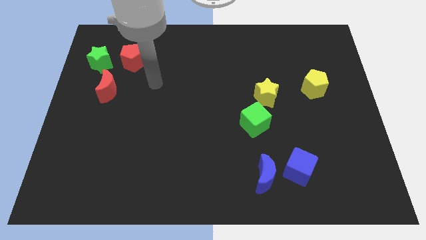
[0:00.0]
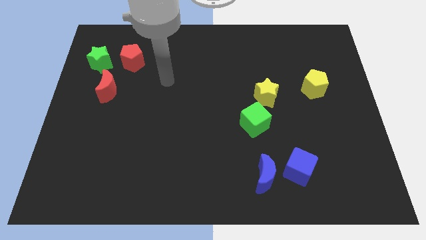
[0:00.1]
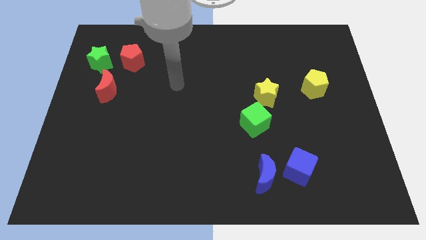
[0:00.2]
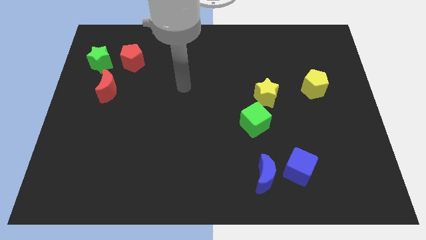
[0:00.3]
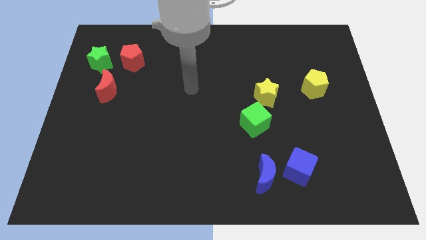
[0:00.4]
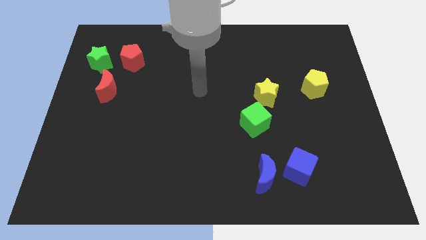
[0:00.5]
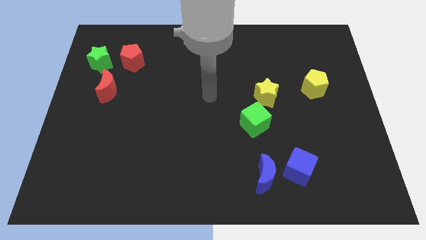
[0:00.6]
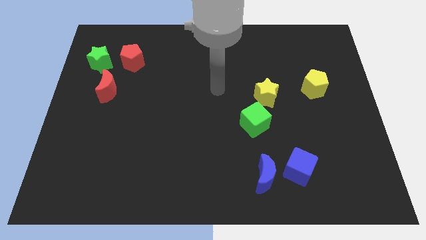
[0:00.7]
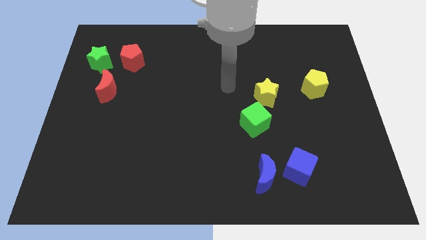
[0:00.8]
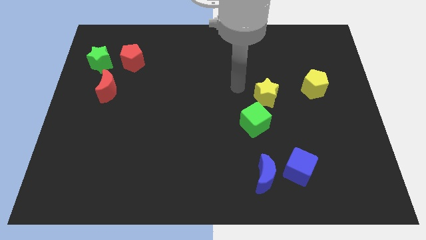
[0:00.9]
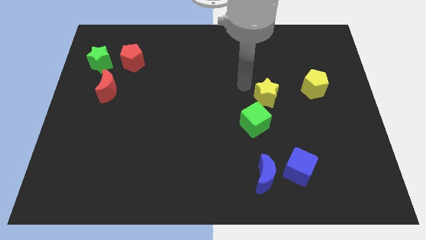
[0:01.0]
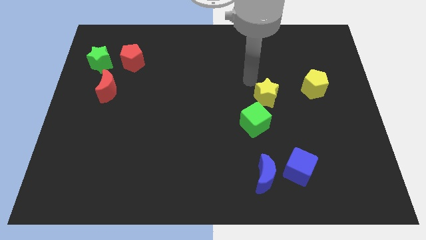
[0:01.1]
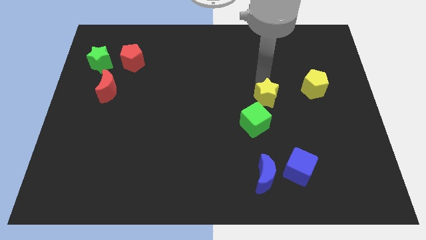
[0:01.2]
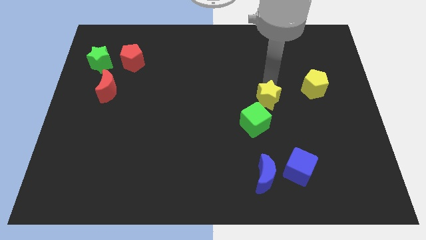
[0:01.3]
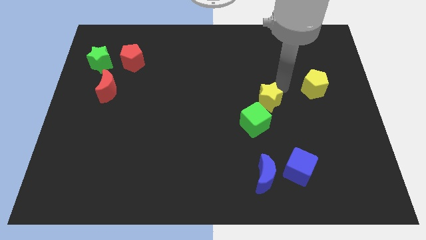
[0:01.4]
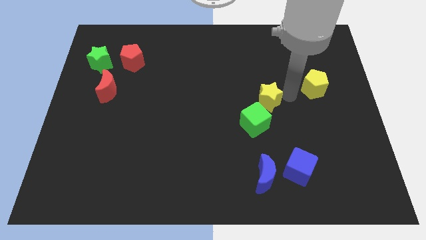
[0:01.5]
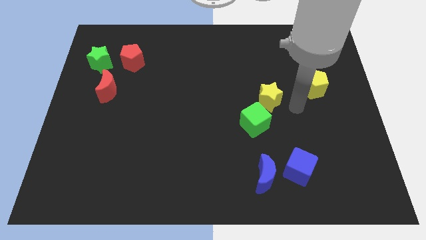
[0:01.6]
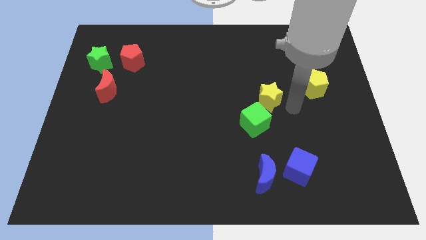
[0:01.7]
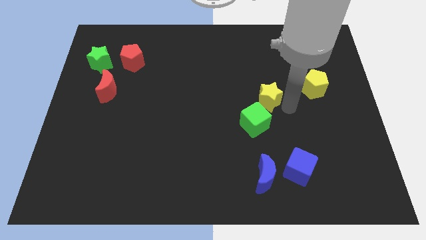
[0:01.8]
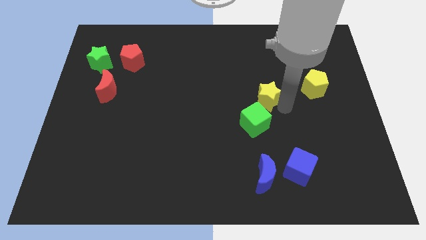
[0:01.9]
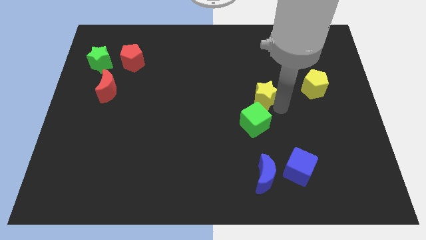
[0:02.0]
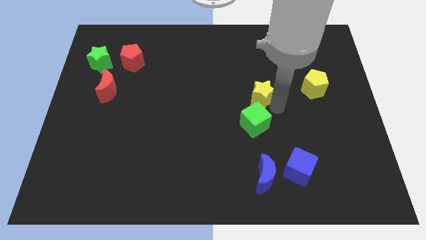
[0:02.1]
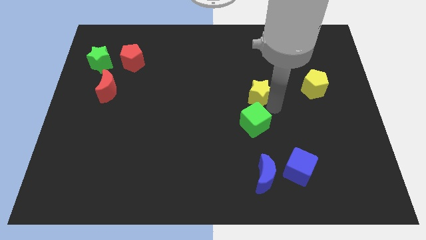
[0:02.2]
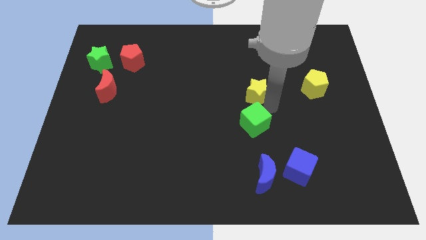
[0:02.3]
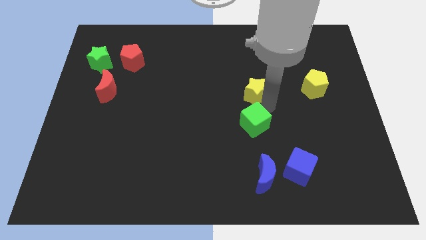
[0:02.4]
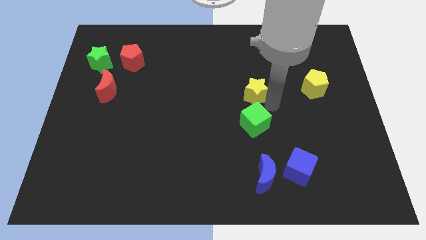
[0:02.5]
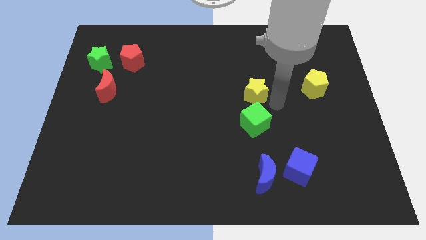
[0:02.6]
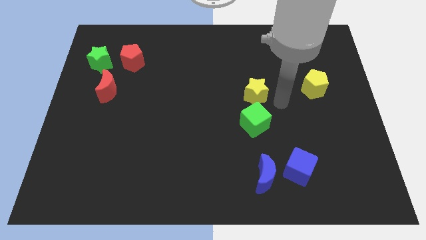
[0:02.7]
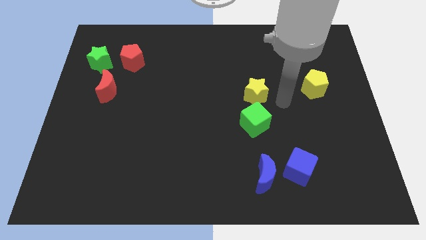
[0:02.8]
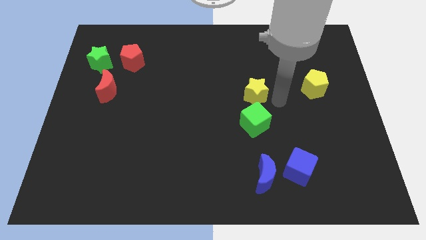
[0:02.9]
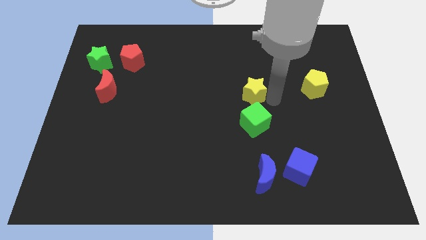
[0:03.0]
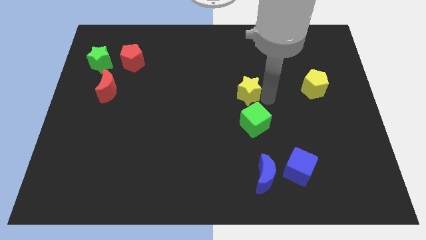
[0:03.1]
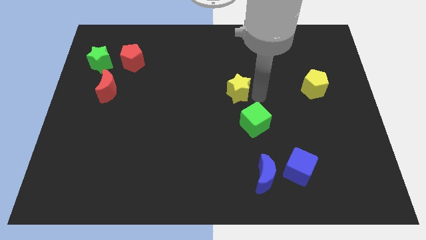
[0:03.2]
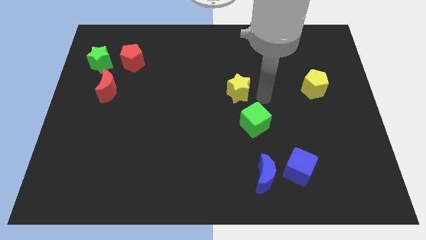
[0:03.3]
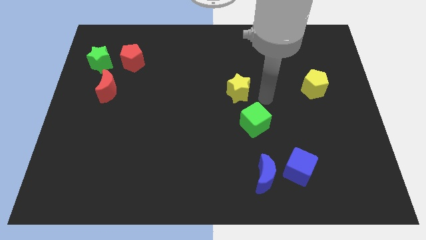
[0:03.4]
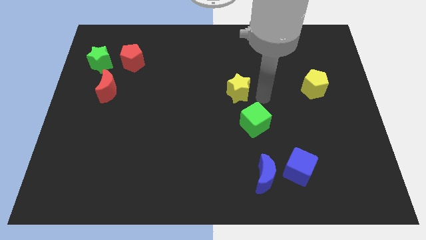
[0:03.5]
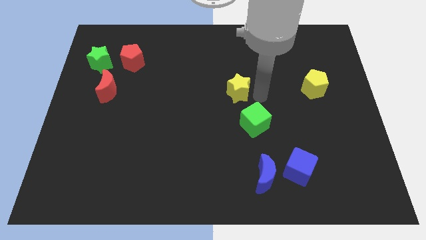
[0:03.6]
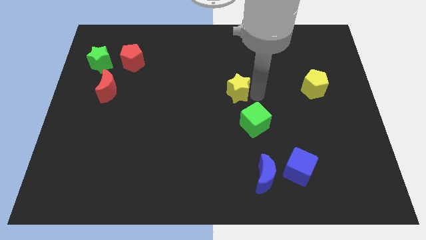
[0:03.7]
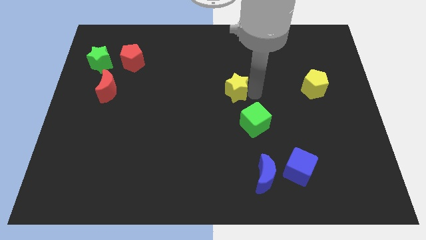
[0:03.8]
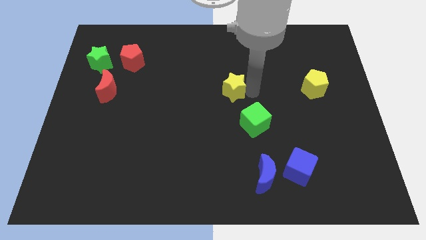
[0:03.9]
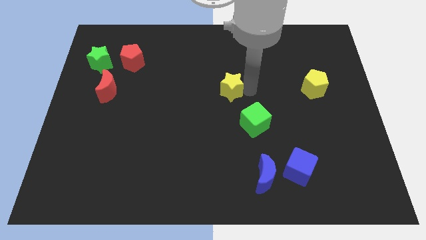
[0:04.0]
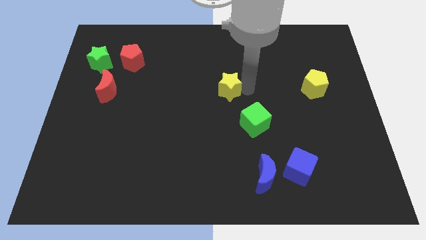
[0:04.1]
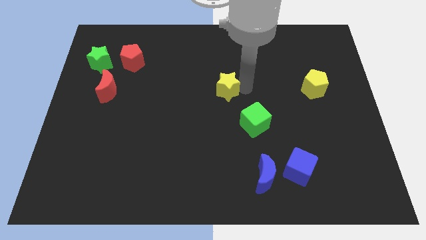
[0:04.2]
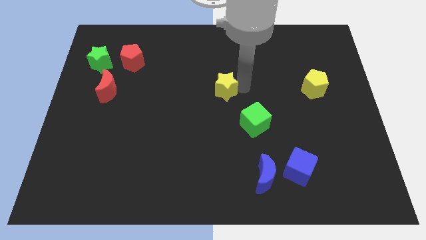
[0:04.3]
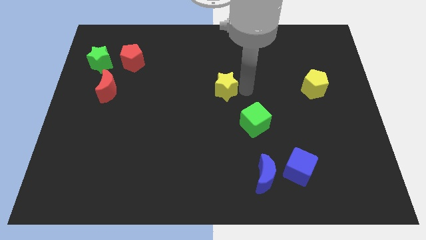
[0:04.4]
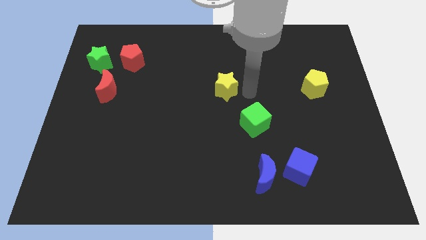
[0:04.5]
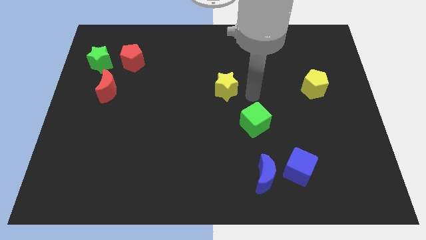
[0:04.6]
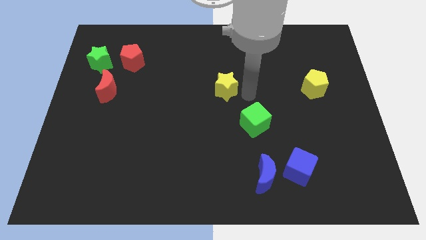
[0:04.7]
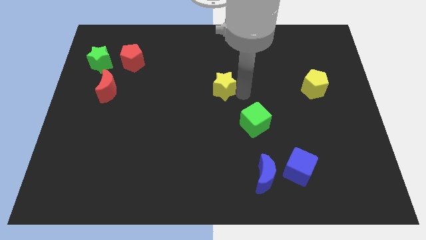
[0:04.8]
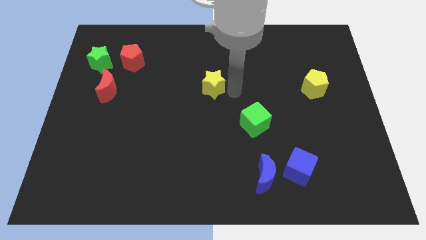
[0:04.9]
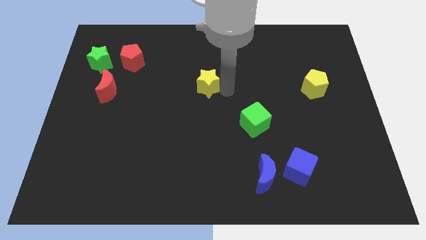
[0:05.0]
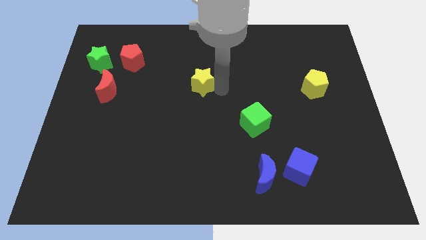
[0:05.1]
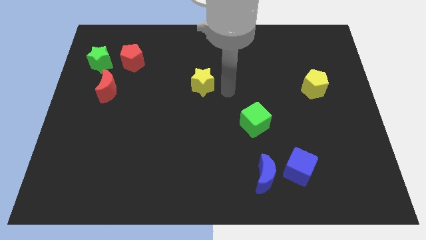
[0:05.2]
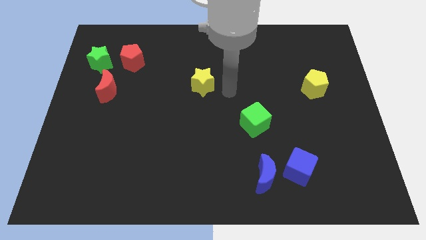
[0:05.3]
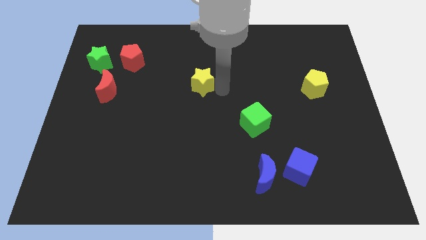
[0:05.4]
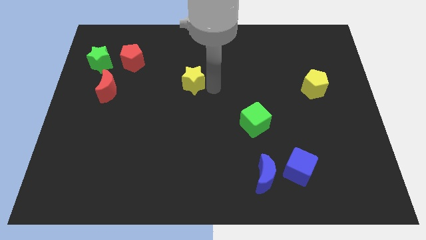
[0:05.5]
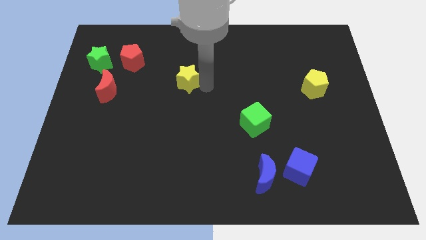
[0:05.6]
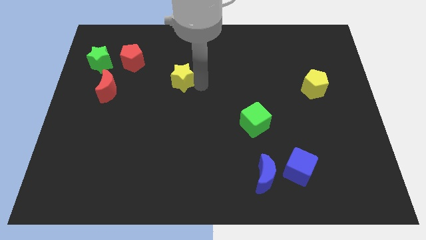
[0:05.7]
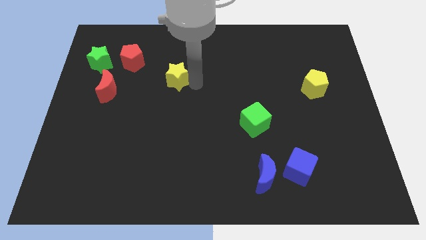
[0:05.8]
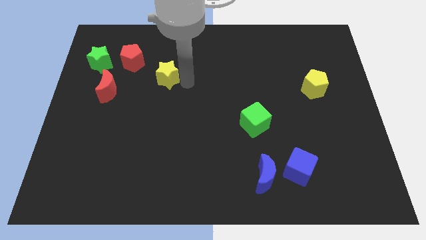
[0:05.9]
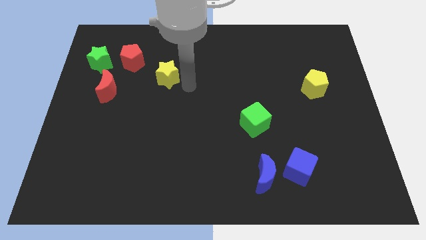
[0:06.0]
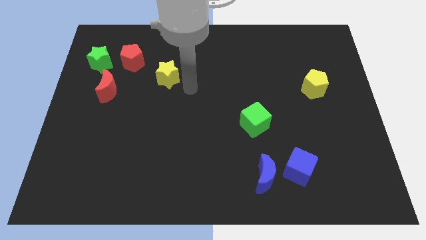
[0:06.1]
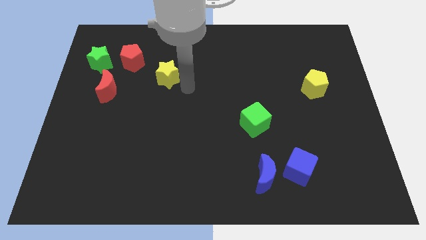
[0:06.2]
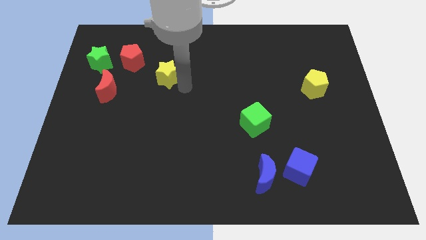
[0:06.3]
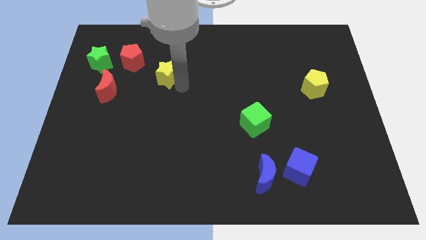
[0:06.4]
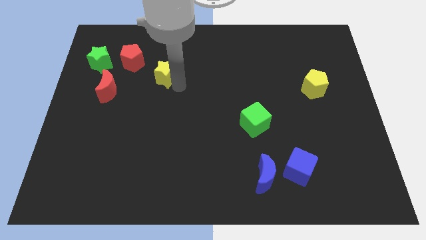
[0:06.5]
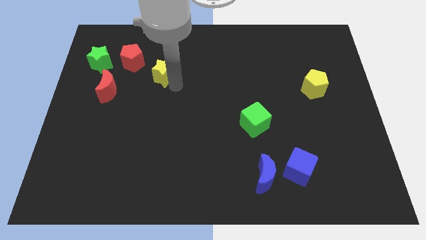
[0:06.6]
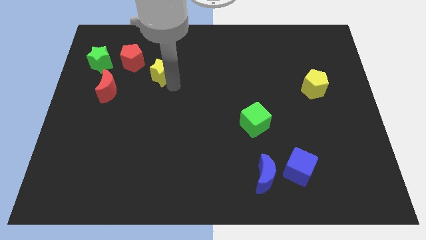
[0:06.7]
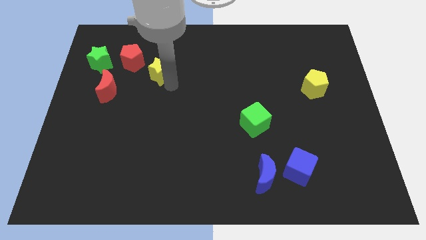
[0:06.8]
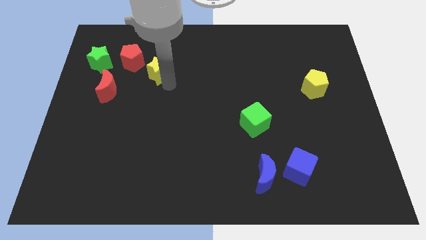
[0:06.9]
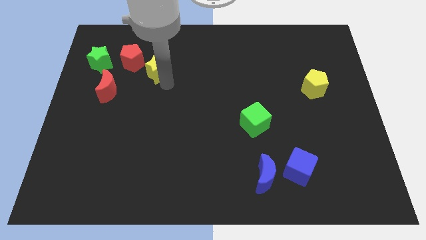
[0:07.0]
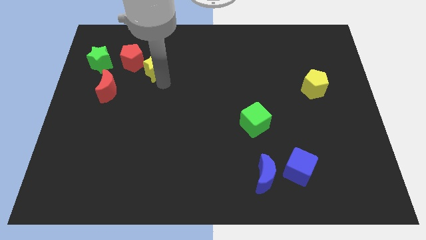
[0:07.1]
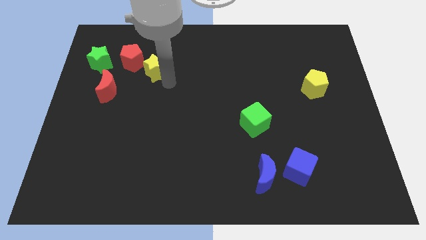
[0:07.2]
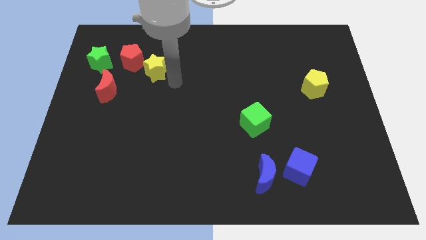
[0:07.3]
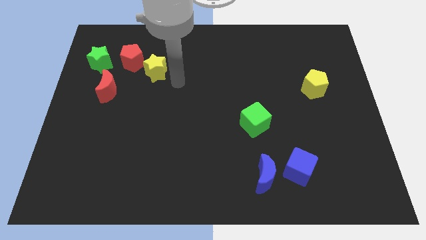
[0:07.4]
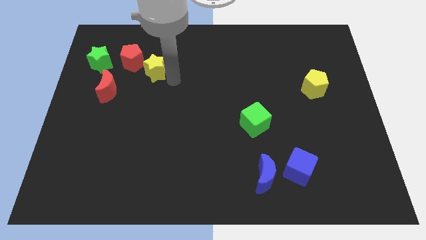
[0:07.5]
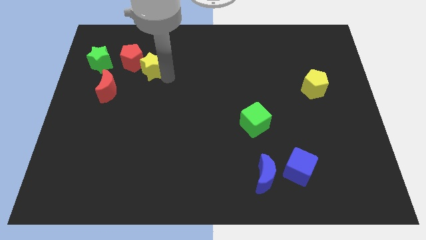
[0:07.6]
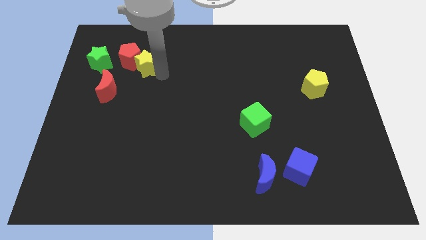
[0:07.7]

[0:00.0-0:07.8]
push the yellow star close to the red pentagon
